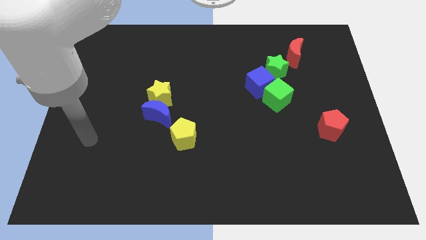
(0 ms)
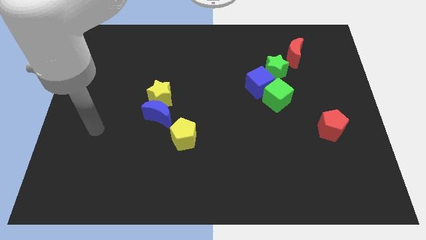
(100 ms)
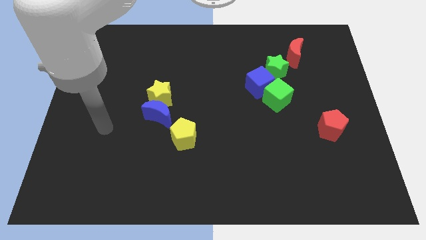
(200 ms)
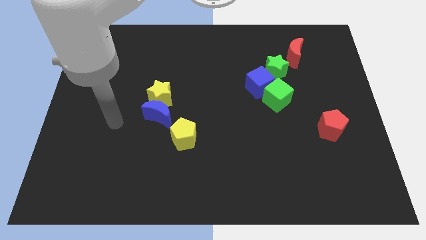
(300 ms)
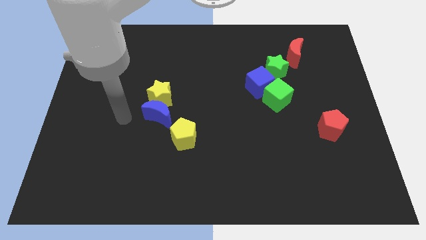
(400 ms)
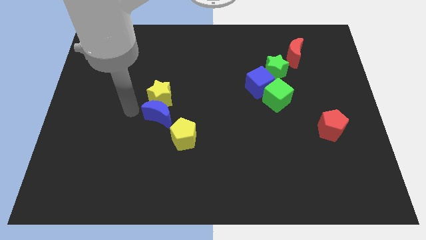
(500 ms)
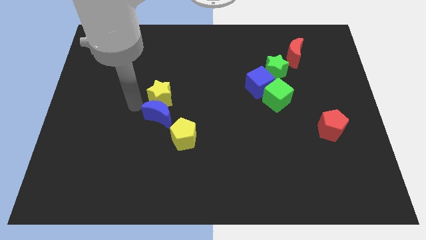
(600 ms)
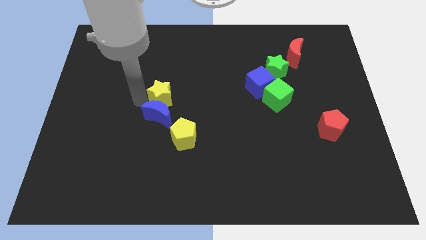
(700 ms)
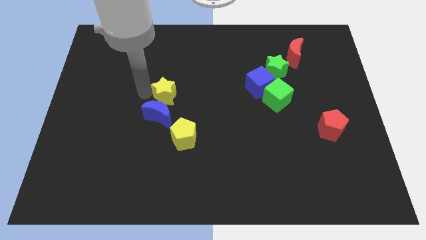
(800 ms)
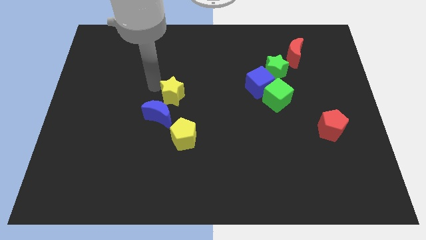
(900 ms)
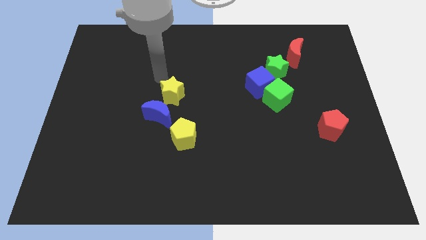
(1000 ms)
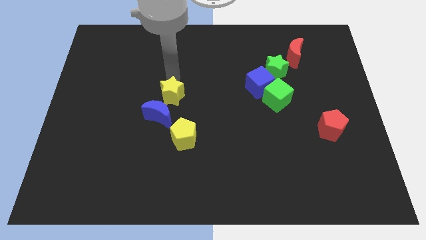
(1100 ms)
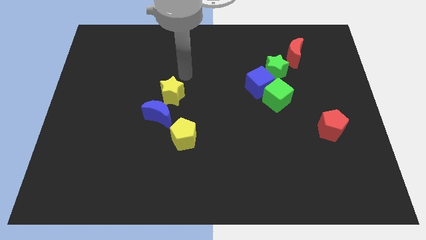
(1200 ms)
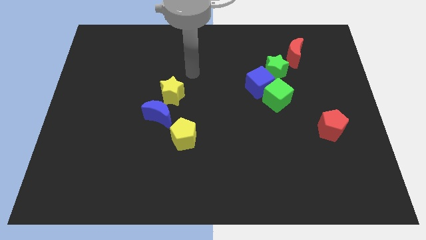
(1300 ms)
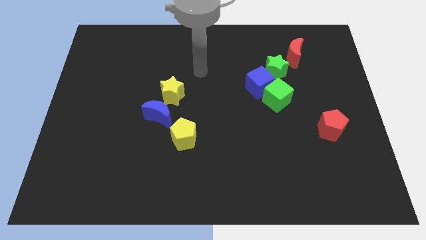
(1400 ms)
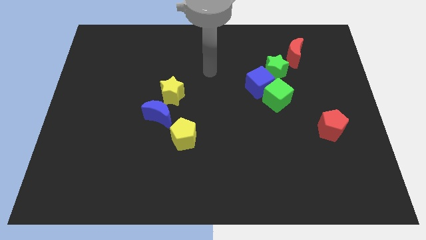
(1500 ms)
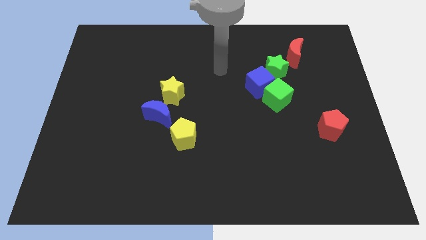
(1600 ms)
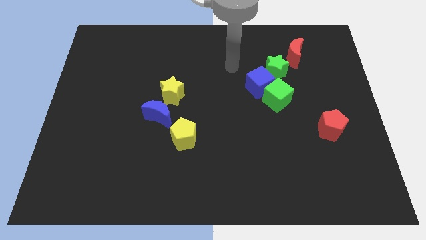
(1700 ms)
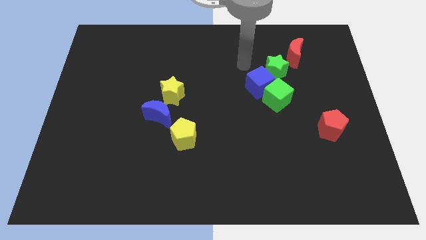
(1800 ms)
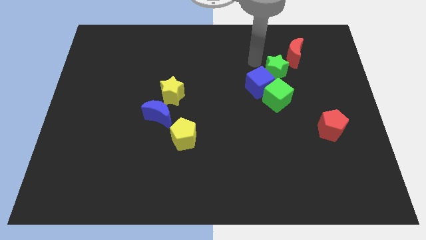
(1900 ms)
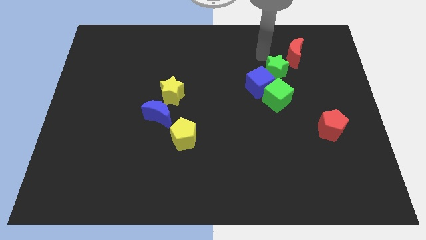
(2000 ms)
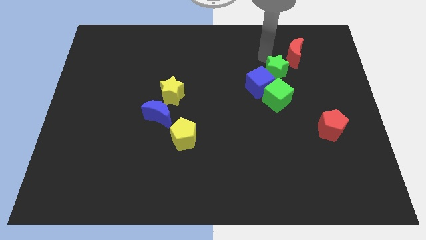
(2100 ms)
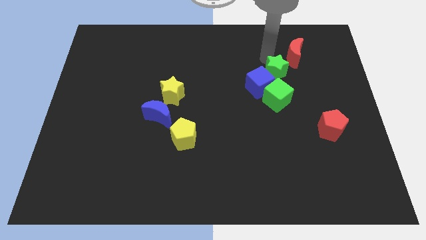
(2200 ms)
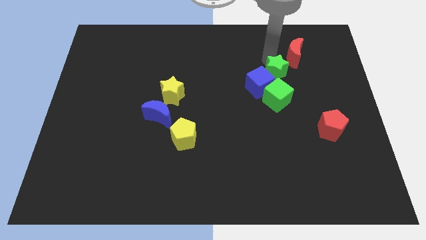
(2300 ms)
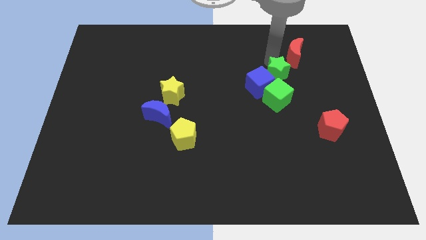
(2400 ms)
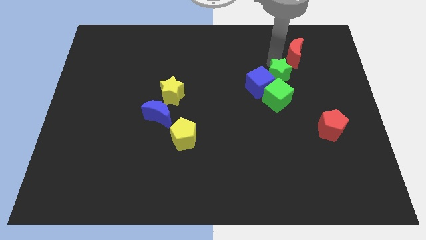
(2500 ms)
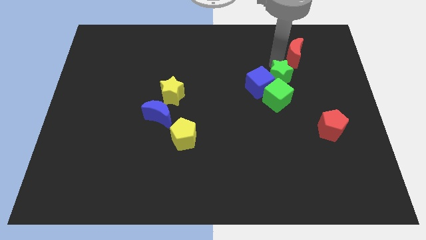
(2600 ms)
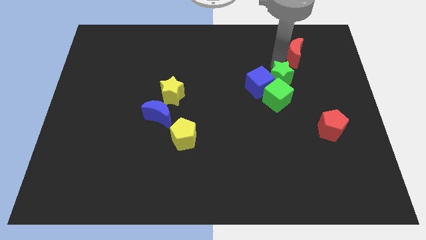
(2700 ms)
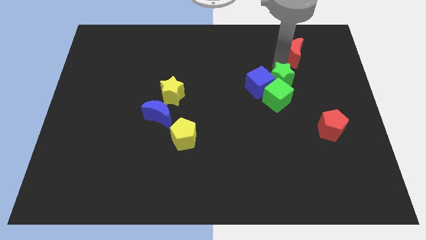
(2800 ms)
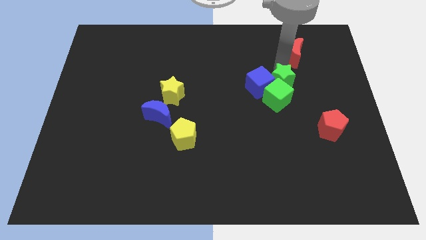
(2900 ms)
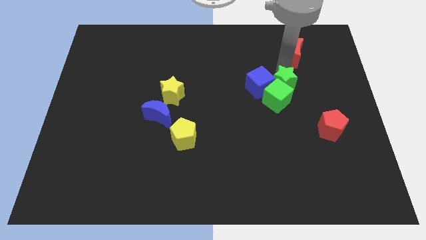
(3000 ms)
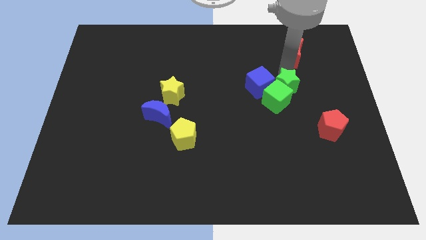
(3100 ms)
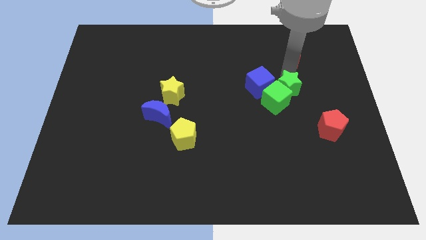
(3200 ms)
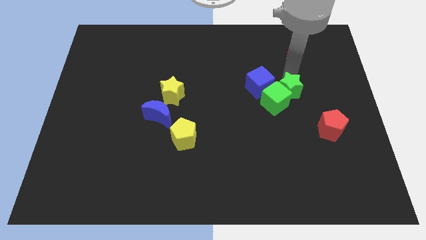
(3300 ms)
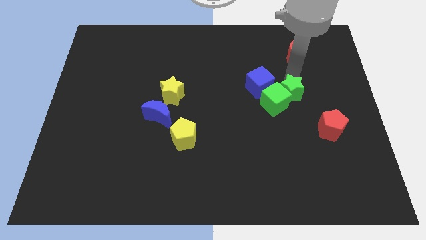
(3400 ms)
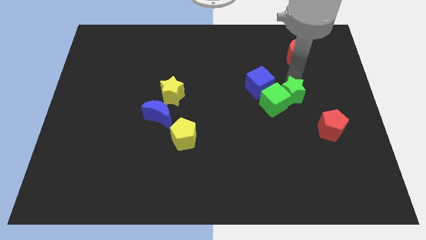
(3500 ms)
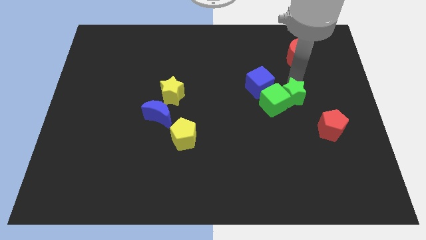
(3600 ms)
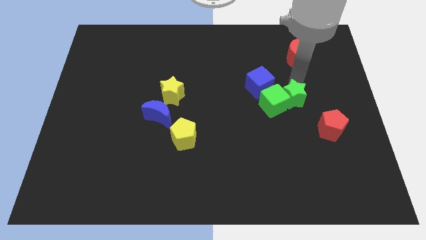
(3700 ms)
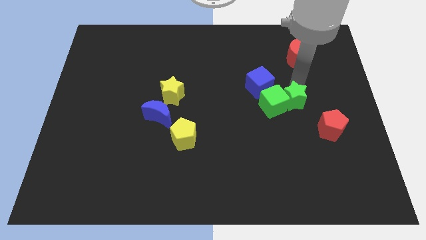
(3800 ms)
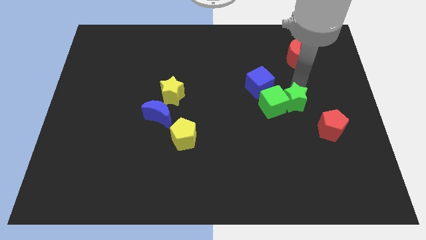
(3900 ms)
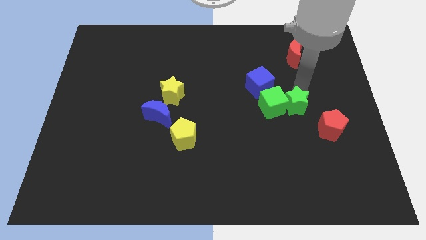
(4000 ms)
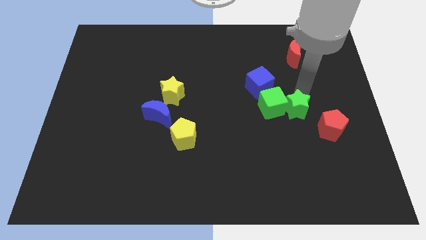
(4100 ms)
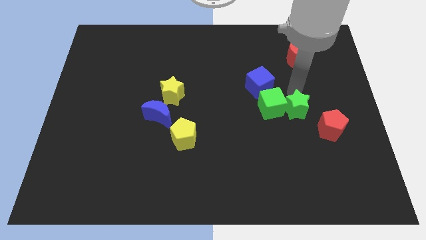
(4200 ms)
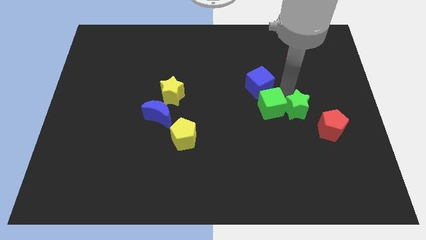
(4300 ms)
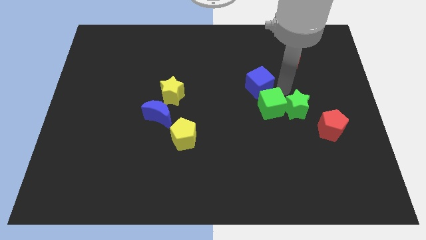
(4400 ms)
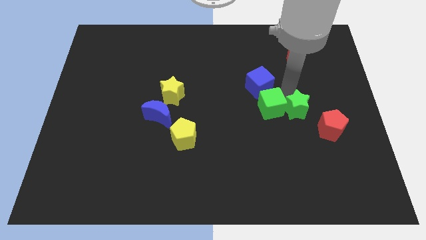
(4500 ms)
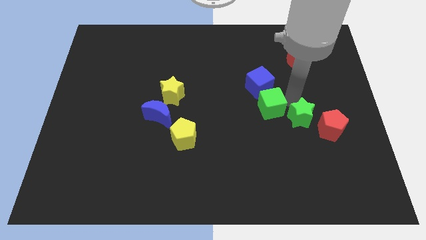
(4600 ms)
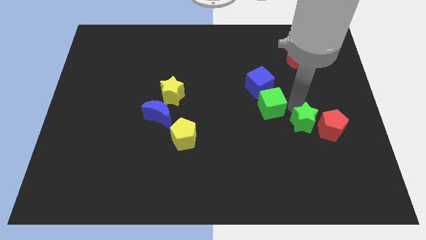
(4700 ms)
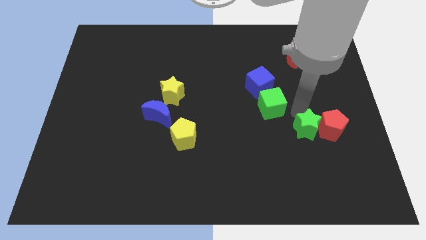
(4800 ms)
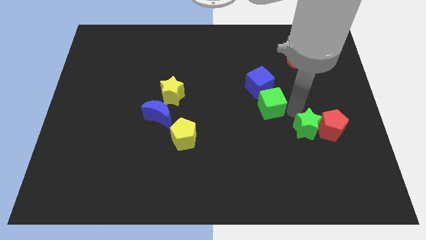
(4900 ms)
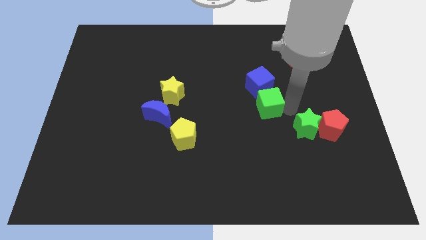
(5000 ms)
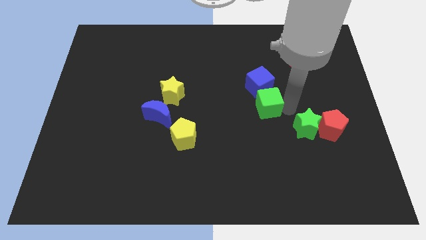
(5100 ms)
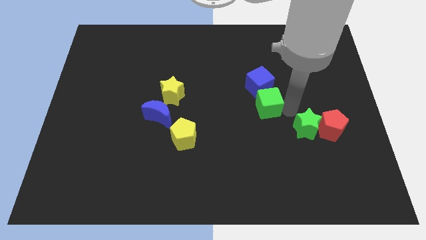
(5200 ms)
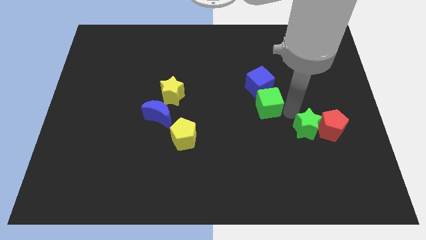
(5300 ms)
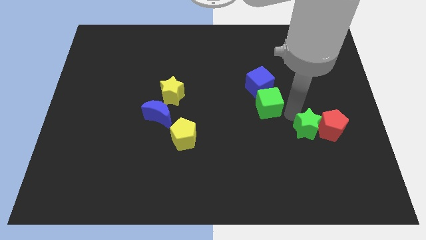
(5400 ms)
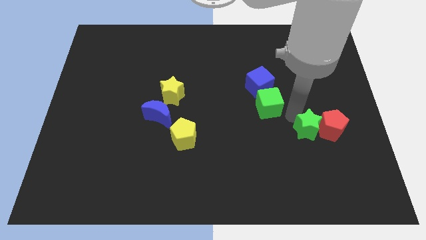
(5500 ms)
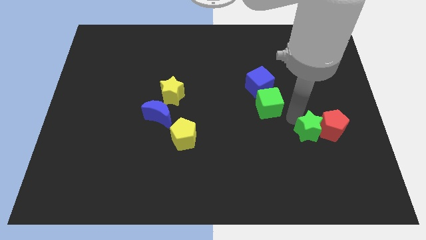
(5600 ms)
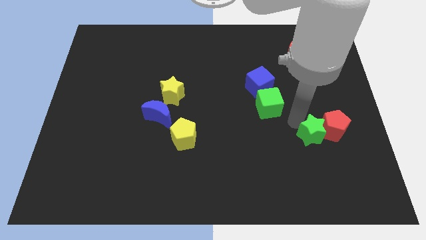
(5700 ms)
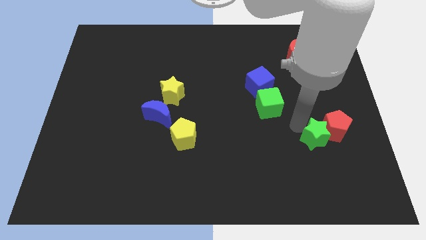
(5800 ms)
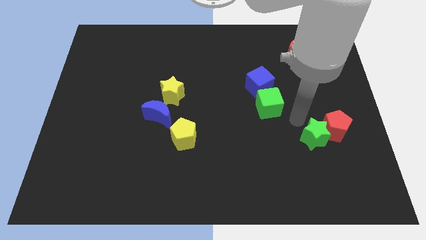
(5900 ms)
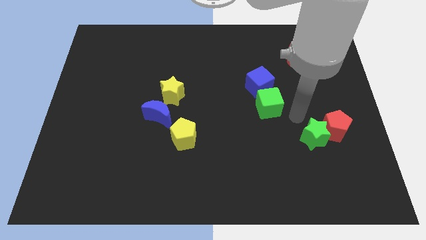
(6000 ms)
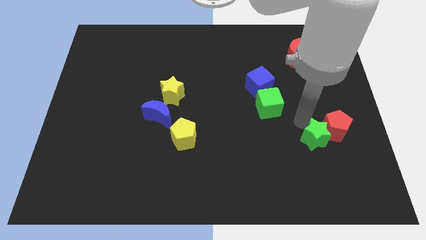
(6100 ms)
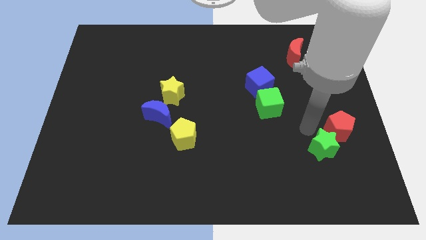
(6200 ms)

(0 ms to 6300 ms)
slide the green star to the bottom of the red pentagon
